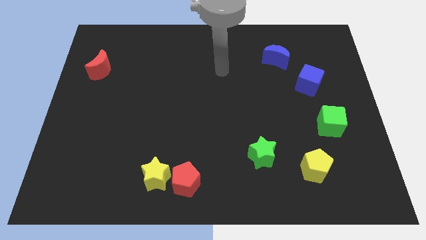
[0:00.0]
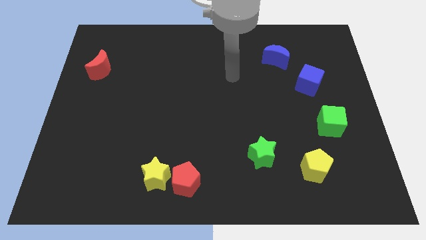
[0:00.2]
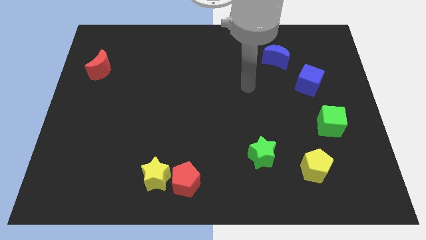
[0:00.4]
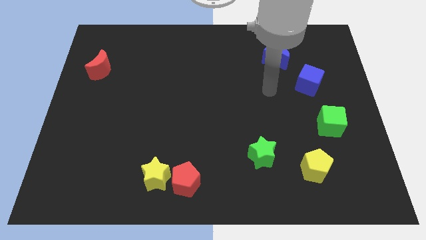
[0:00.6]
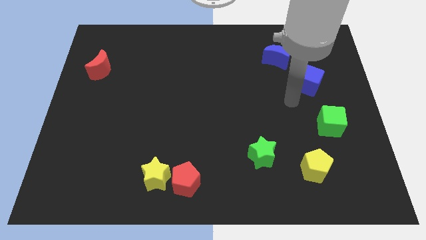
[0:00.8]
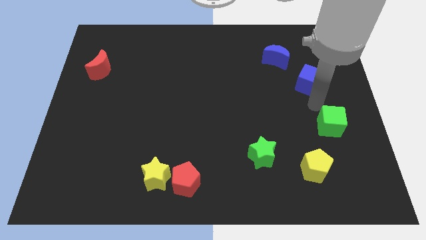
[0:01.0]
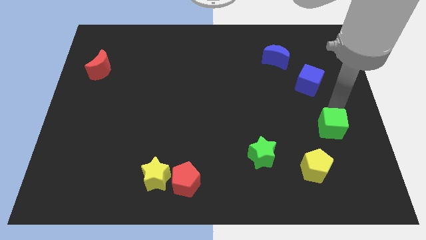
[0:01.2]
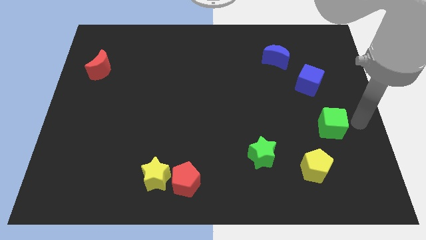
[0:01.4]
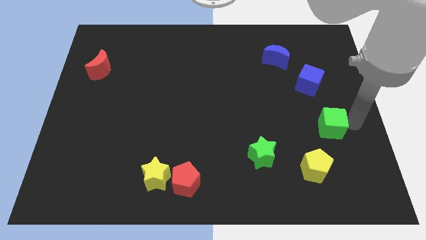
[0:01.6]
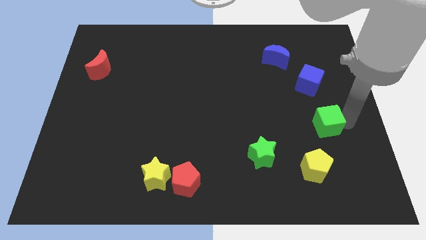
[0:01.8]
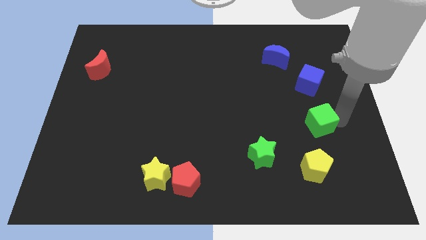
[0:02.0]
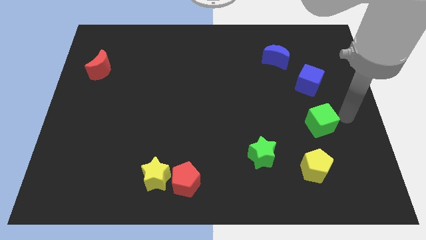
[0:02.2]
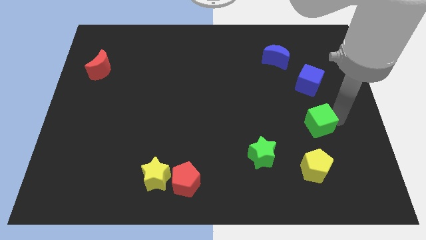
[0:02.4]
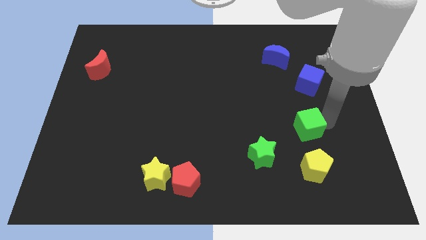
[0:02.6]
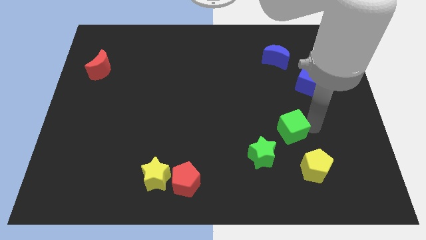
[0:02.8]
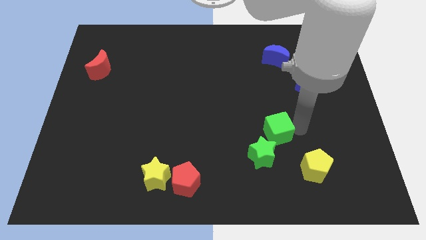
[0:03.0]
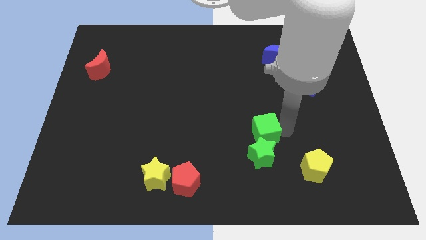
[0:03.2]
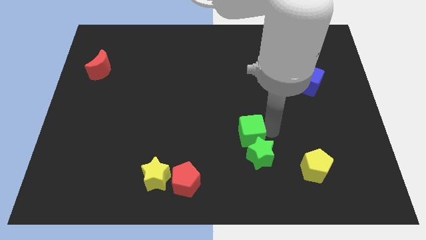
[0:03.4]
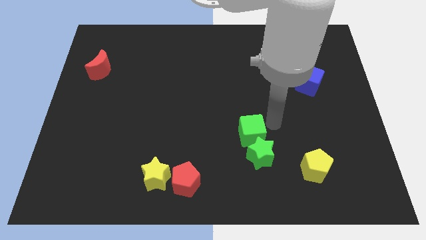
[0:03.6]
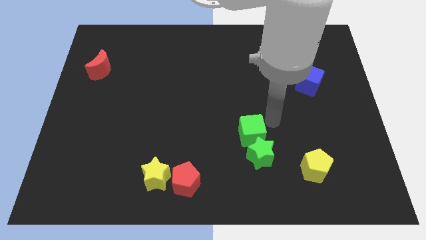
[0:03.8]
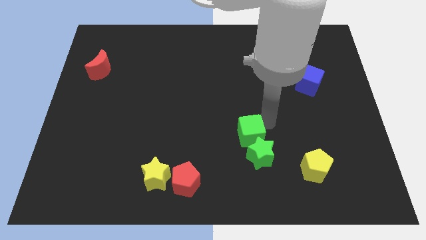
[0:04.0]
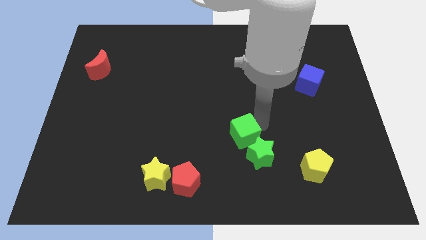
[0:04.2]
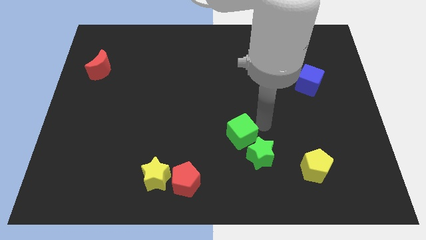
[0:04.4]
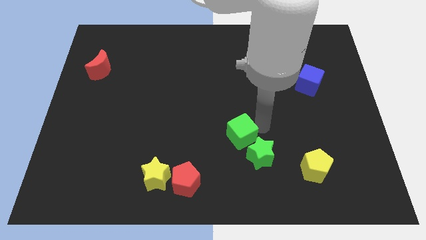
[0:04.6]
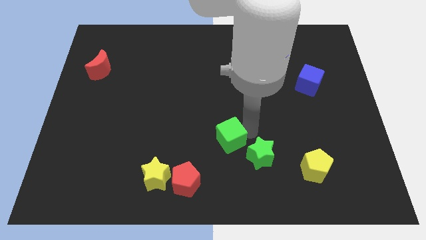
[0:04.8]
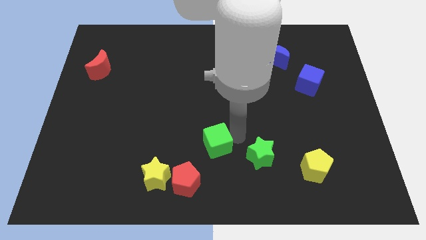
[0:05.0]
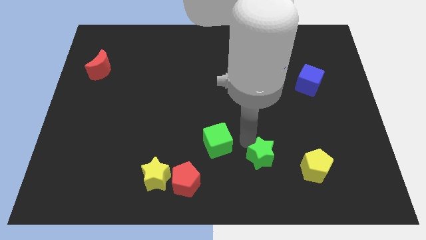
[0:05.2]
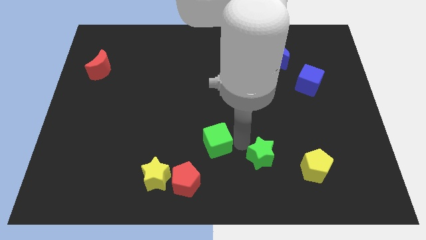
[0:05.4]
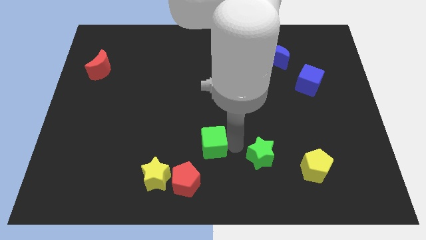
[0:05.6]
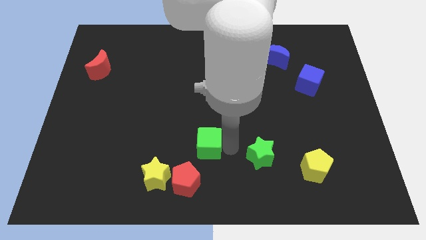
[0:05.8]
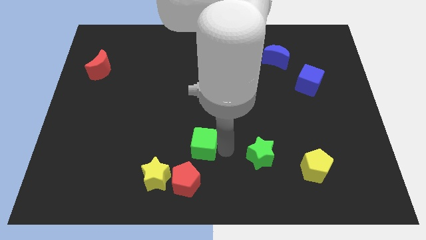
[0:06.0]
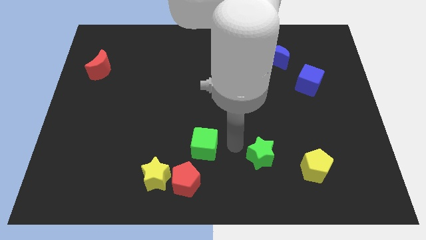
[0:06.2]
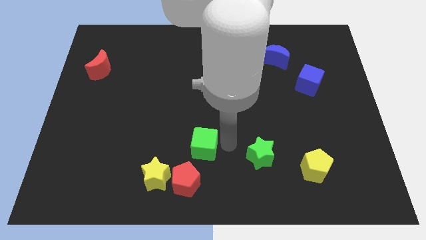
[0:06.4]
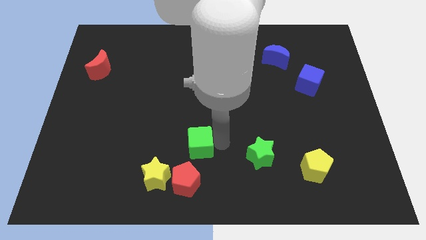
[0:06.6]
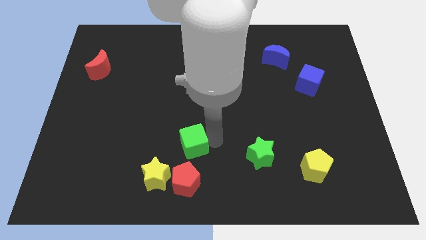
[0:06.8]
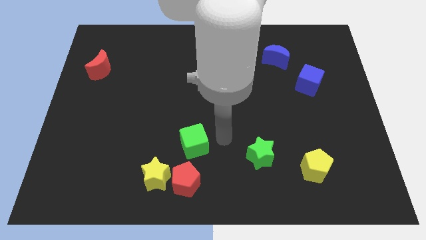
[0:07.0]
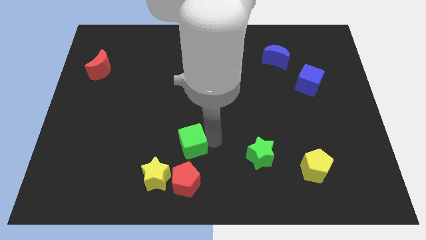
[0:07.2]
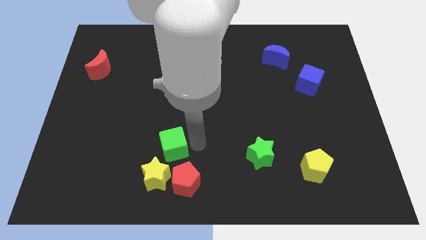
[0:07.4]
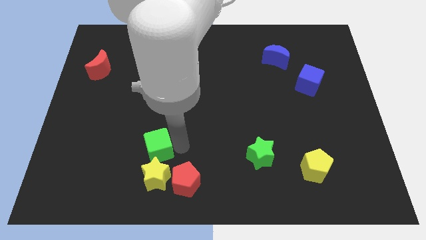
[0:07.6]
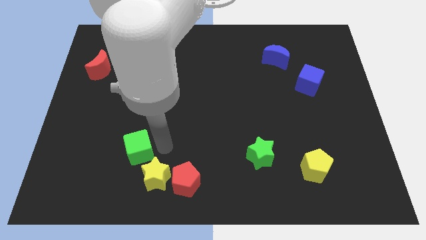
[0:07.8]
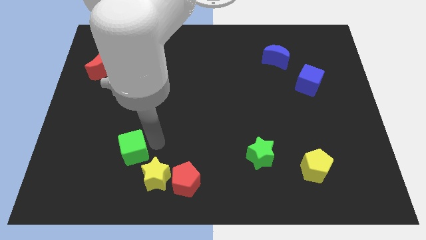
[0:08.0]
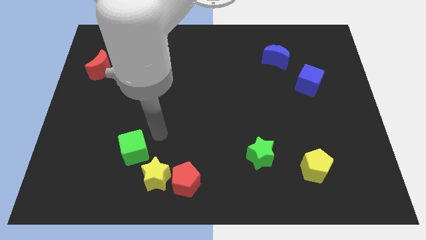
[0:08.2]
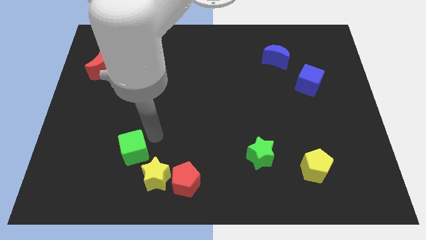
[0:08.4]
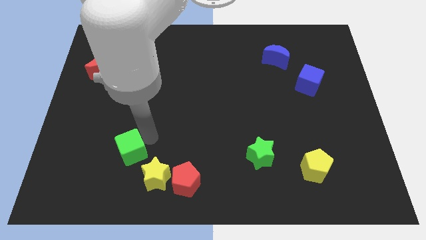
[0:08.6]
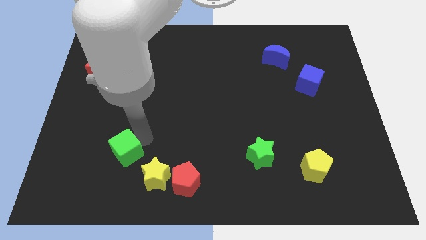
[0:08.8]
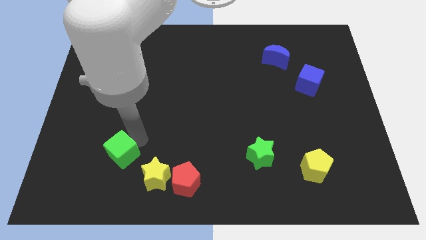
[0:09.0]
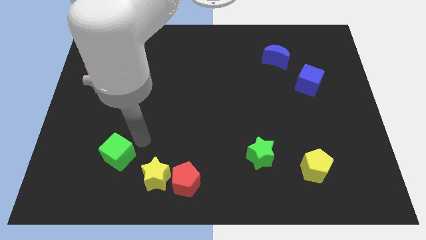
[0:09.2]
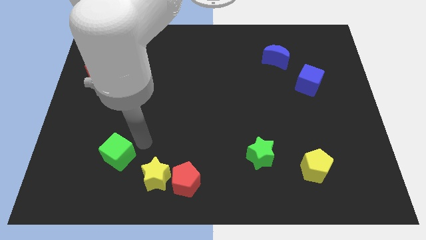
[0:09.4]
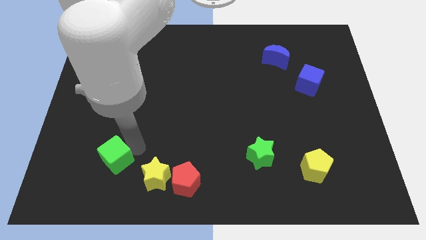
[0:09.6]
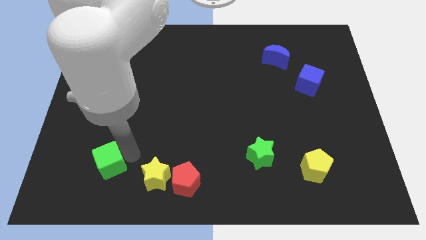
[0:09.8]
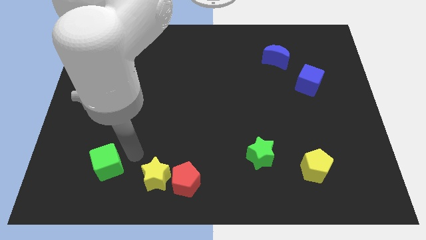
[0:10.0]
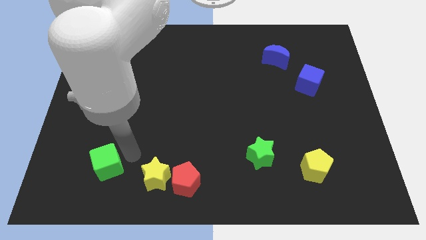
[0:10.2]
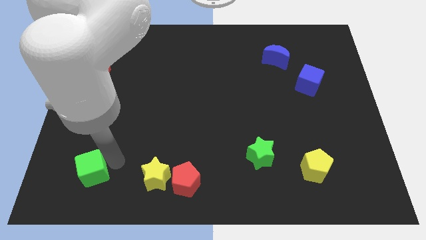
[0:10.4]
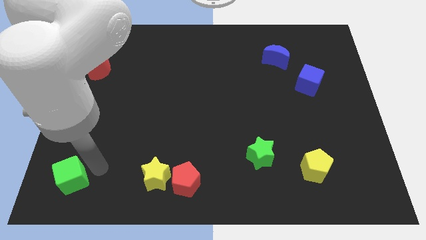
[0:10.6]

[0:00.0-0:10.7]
move the green cube to the bottom left
